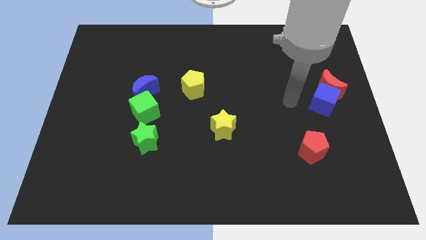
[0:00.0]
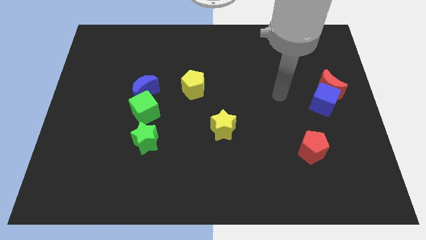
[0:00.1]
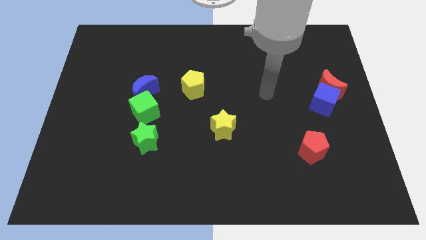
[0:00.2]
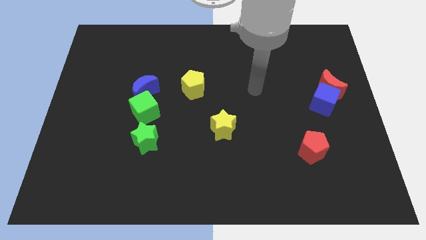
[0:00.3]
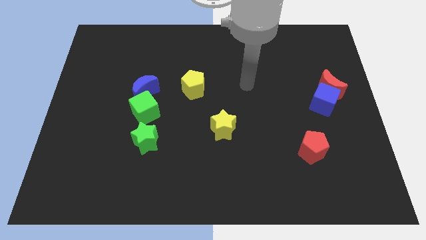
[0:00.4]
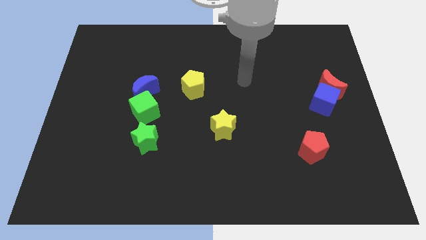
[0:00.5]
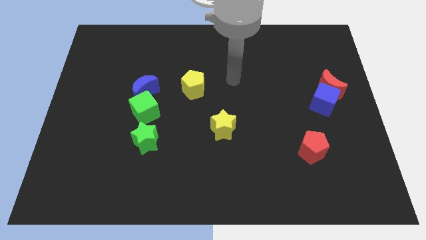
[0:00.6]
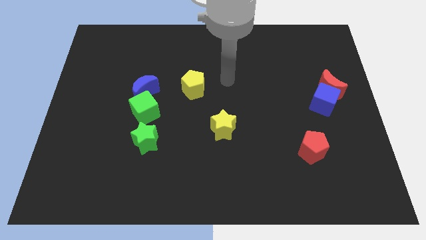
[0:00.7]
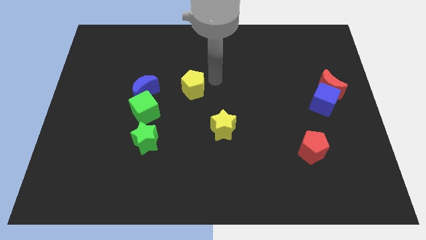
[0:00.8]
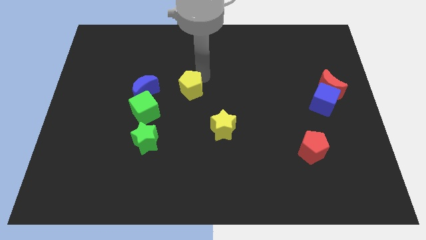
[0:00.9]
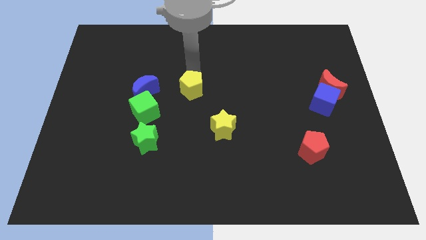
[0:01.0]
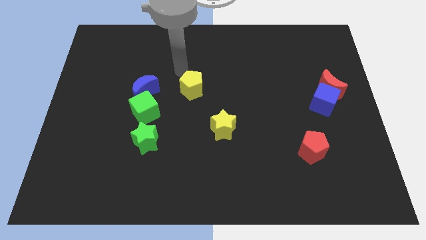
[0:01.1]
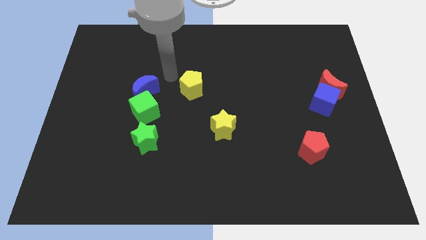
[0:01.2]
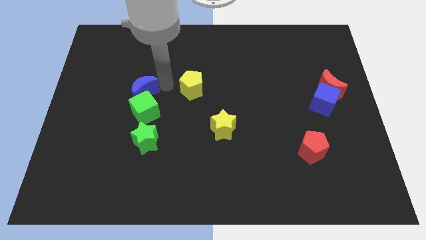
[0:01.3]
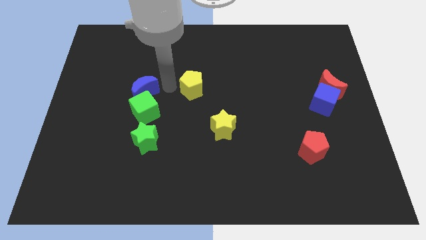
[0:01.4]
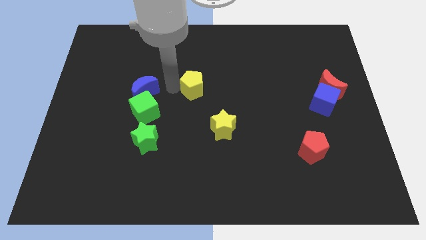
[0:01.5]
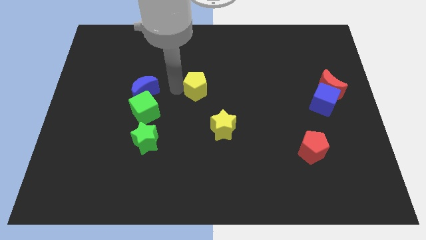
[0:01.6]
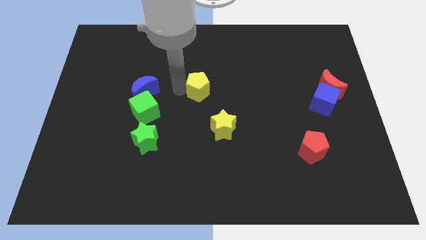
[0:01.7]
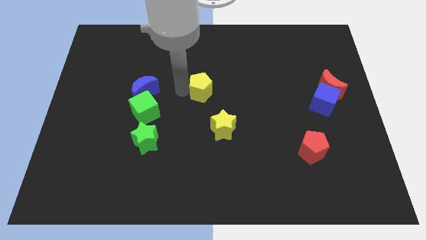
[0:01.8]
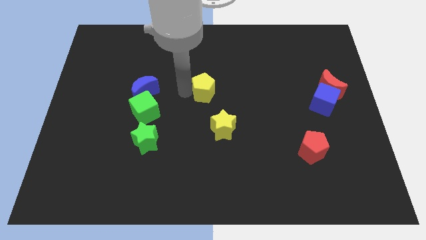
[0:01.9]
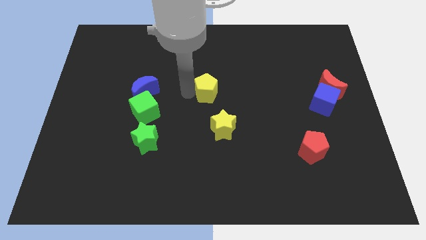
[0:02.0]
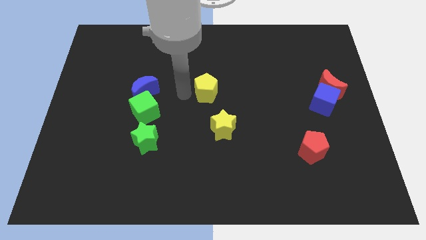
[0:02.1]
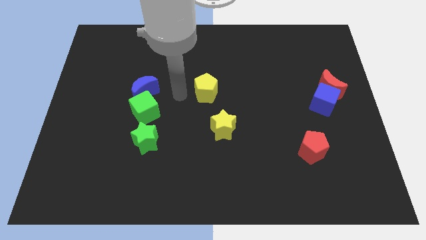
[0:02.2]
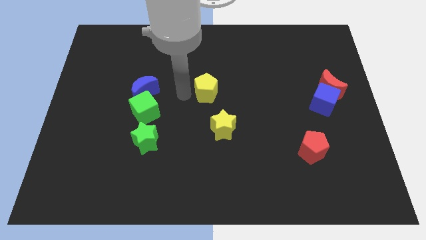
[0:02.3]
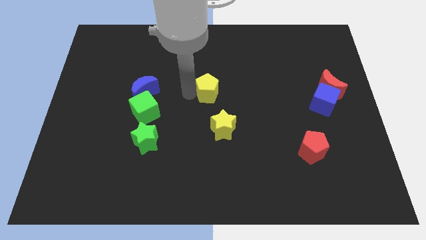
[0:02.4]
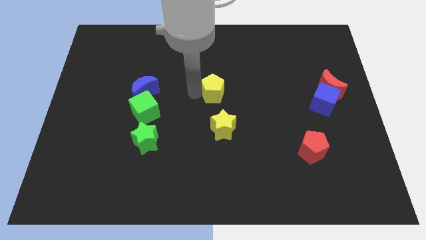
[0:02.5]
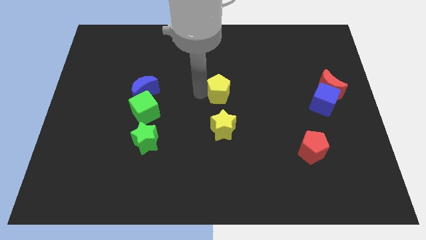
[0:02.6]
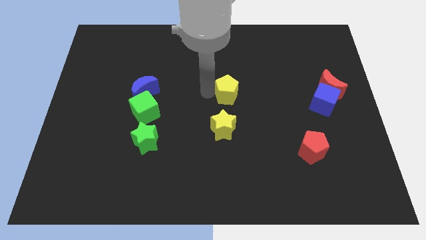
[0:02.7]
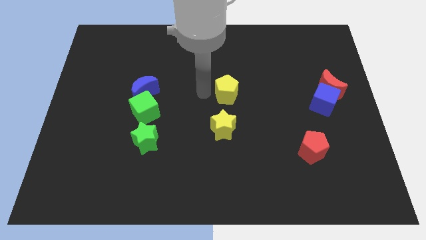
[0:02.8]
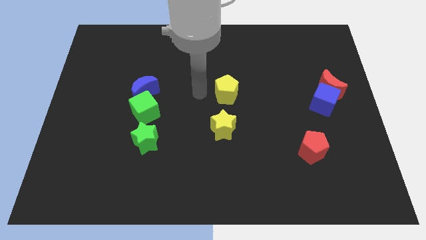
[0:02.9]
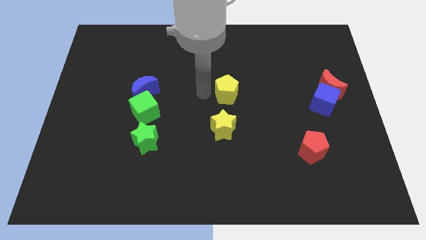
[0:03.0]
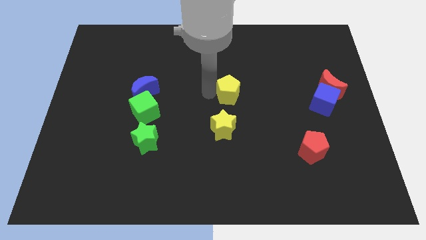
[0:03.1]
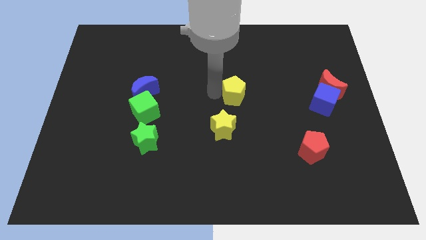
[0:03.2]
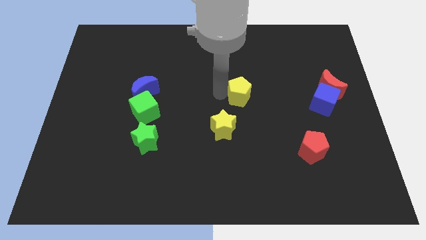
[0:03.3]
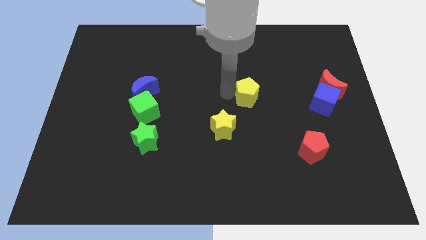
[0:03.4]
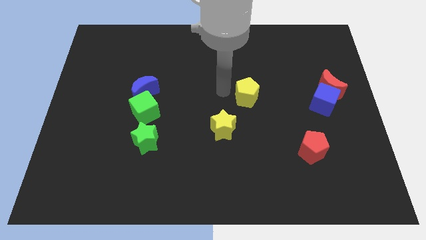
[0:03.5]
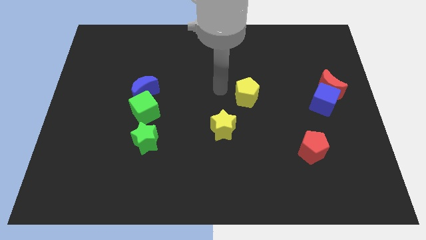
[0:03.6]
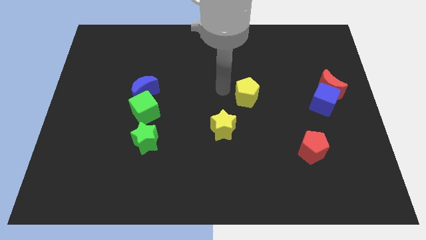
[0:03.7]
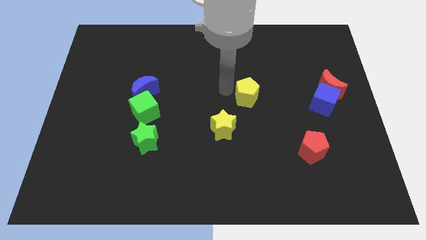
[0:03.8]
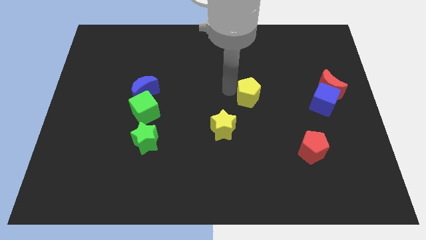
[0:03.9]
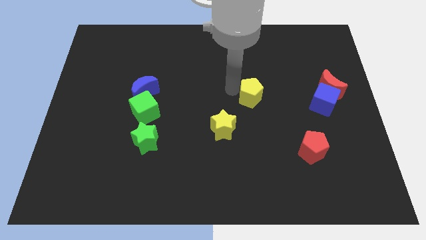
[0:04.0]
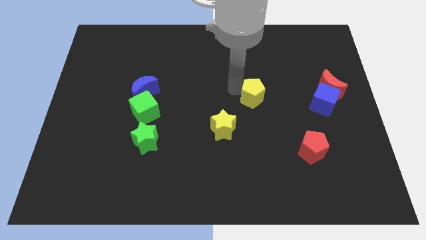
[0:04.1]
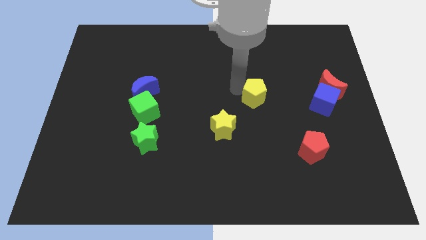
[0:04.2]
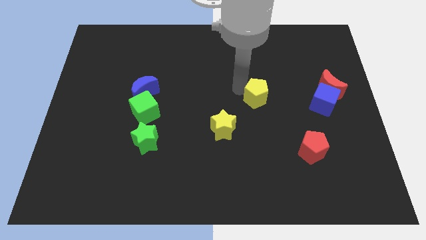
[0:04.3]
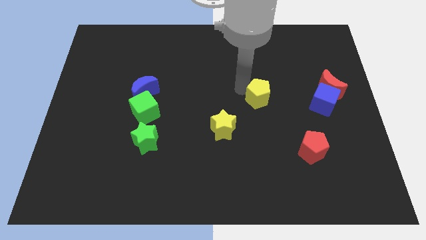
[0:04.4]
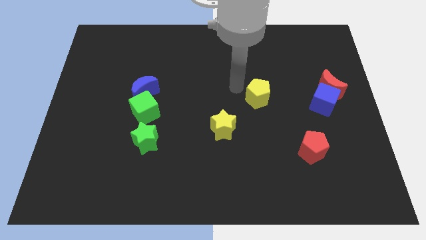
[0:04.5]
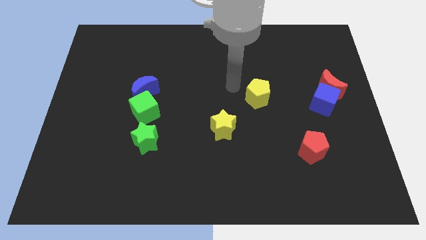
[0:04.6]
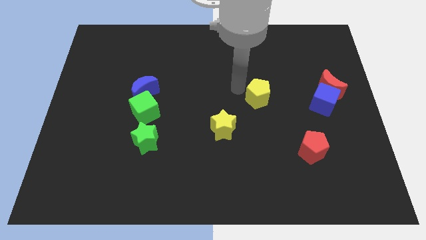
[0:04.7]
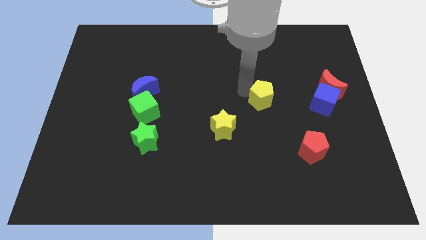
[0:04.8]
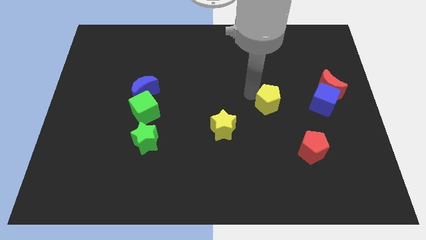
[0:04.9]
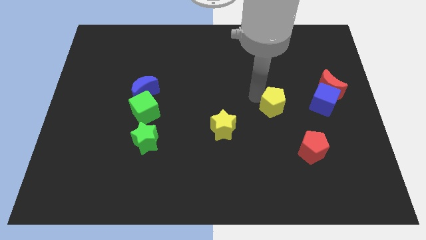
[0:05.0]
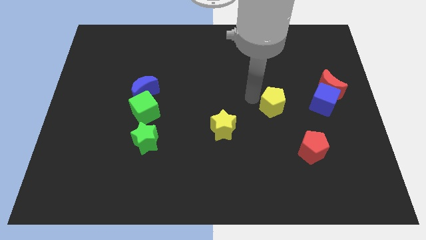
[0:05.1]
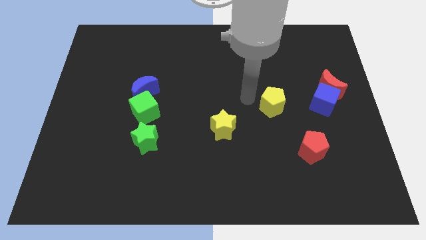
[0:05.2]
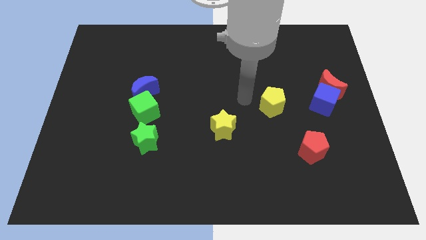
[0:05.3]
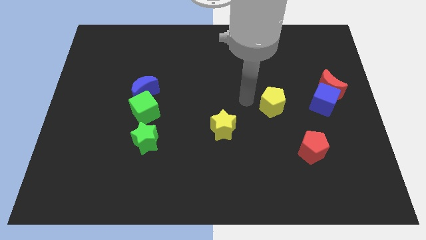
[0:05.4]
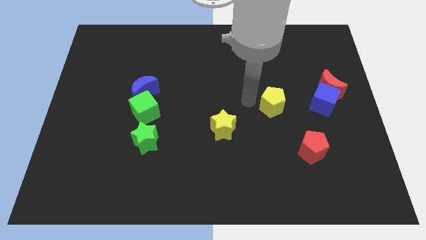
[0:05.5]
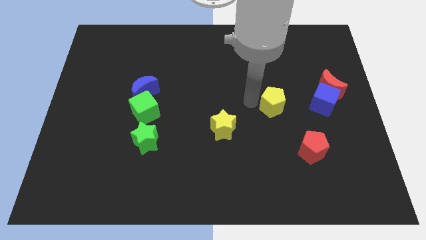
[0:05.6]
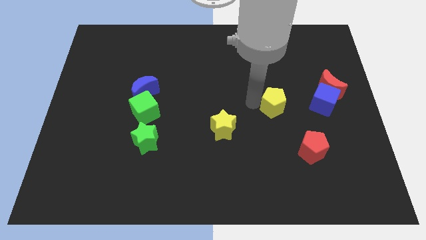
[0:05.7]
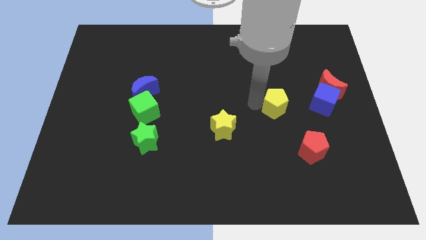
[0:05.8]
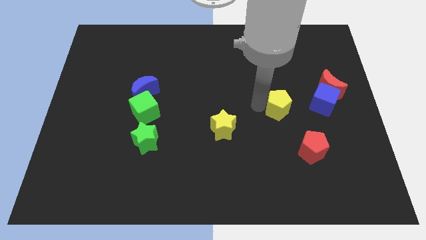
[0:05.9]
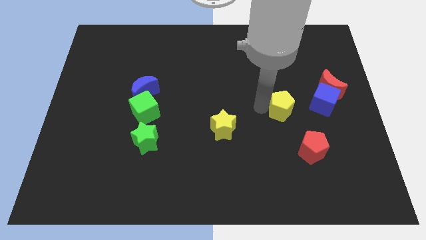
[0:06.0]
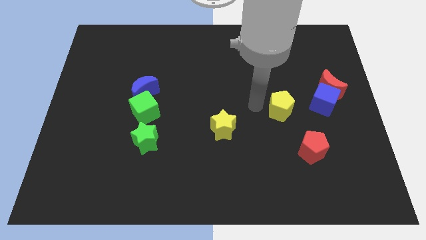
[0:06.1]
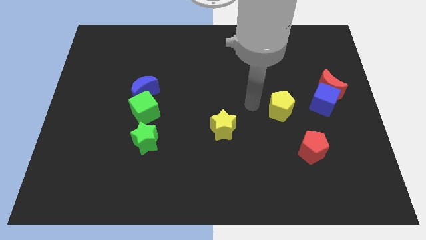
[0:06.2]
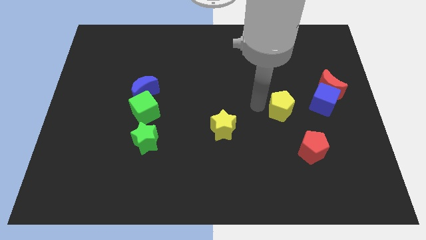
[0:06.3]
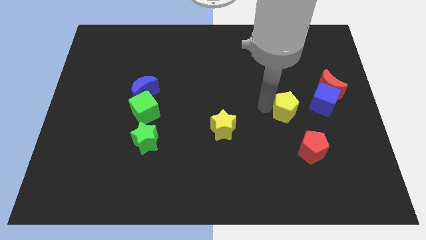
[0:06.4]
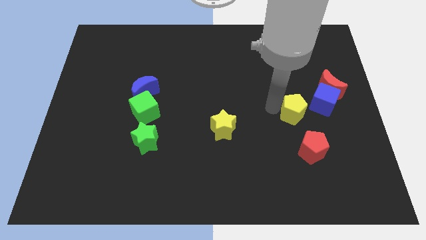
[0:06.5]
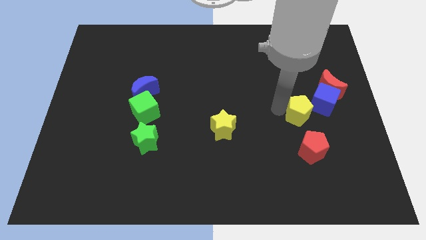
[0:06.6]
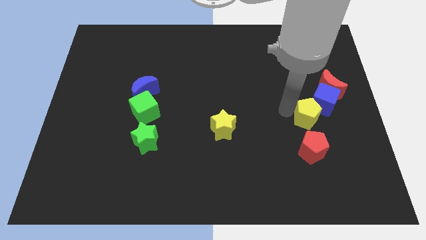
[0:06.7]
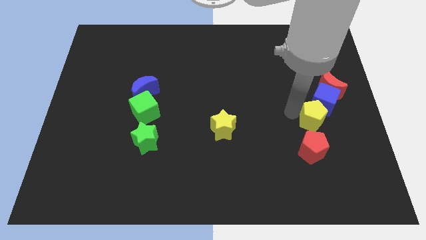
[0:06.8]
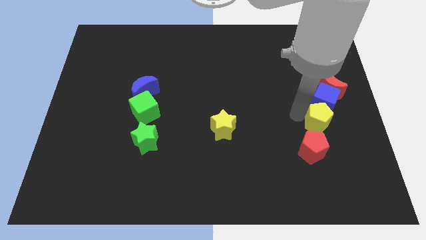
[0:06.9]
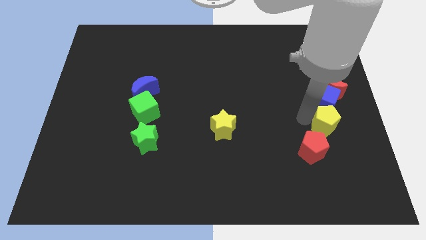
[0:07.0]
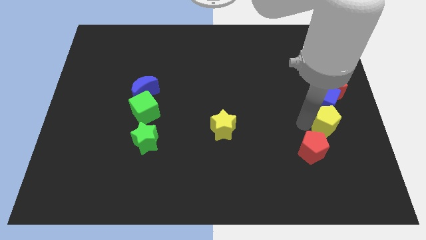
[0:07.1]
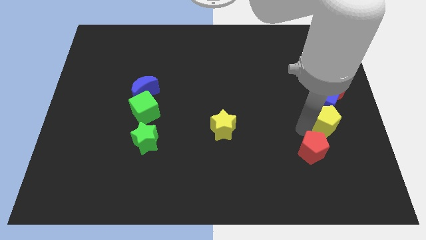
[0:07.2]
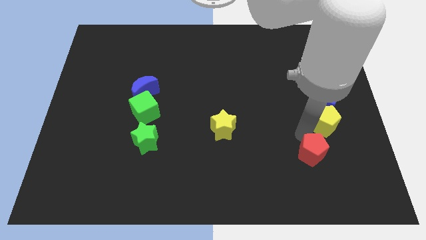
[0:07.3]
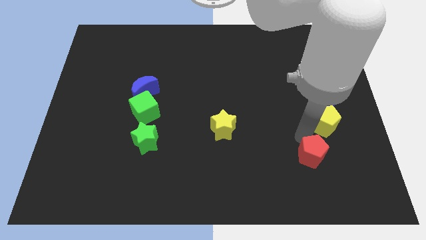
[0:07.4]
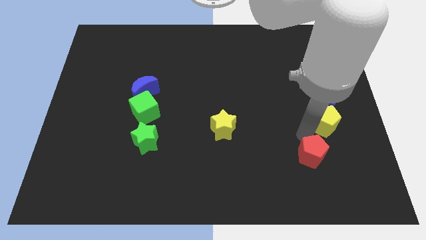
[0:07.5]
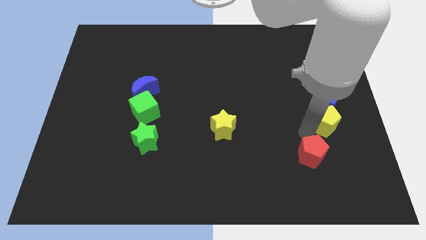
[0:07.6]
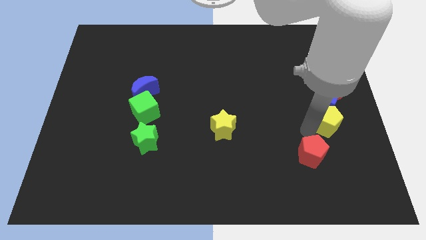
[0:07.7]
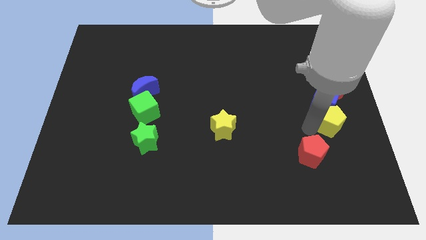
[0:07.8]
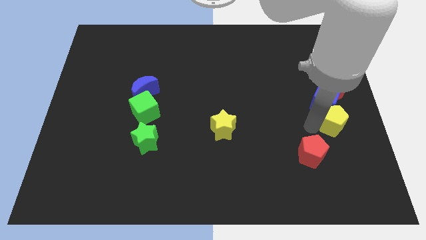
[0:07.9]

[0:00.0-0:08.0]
slide the yellow pentagon to the right side of the board
